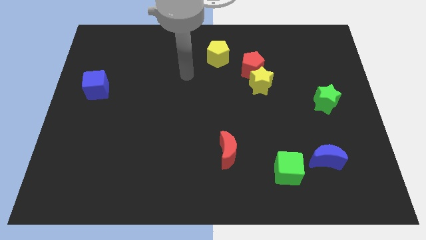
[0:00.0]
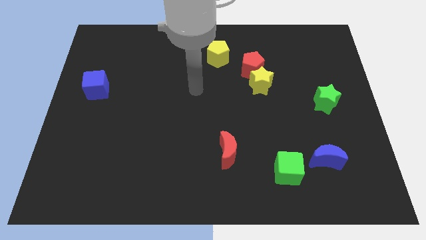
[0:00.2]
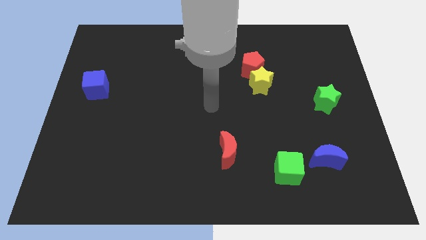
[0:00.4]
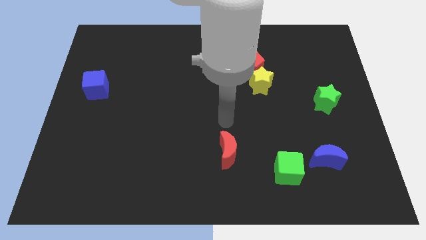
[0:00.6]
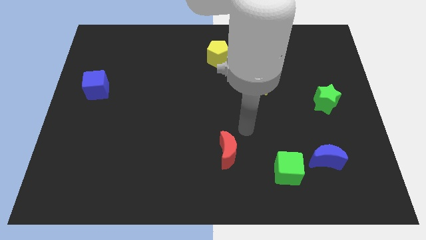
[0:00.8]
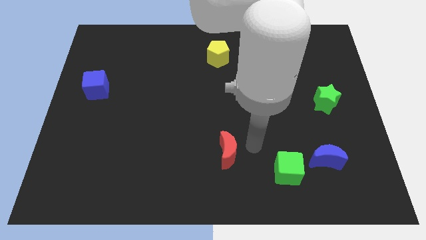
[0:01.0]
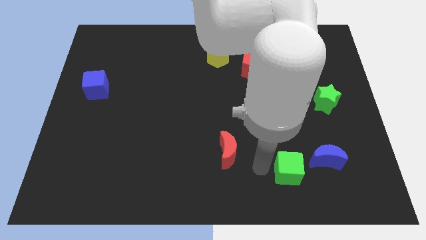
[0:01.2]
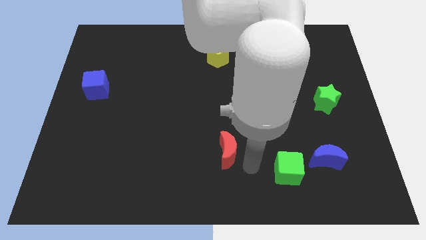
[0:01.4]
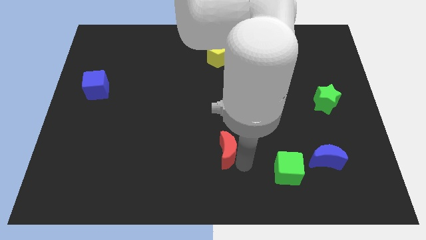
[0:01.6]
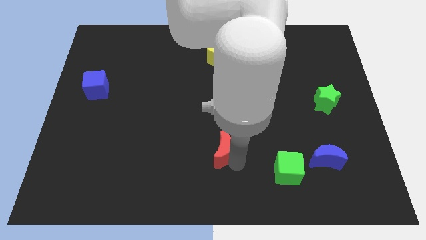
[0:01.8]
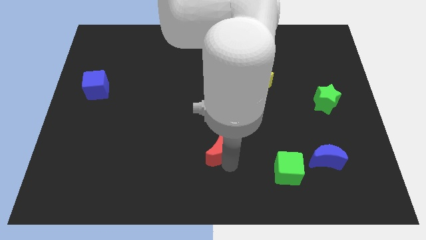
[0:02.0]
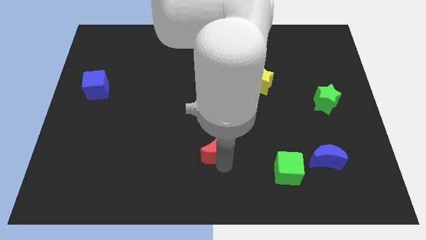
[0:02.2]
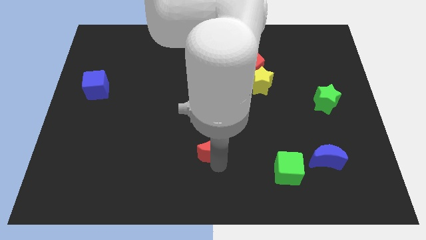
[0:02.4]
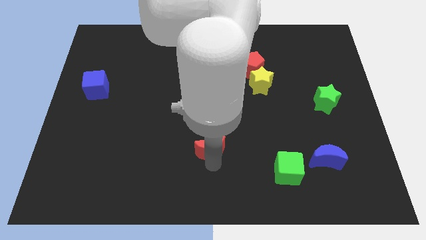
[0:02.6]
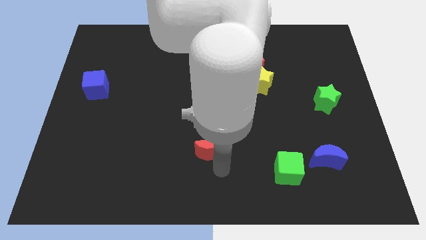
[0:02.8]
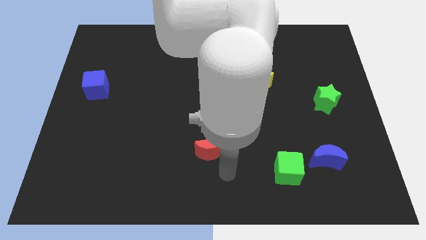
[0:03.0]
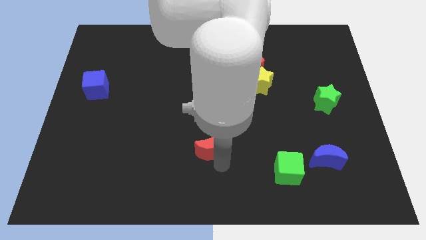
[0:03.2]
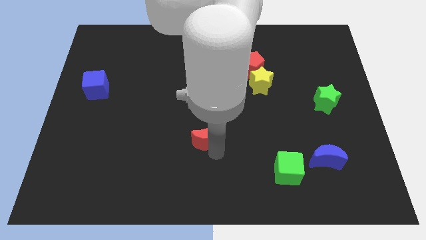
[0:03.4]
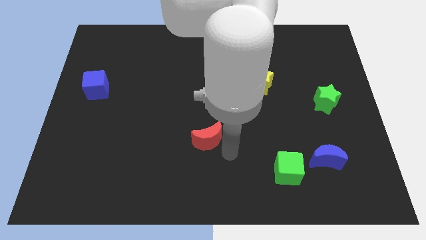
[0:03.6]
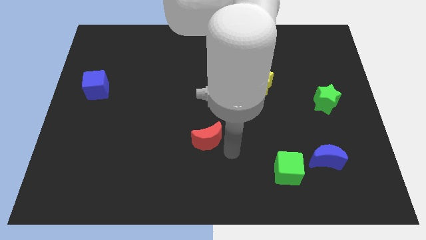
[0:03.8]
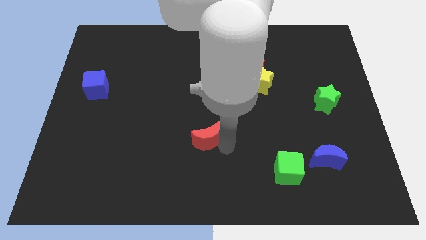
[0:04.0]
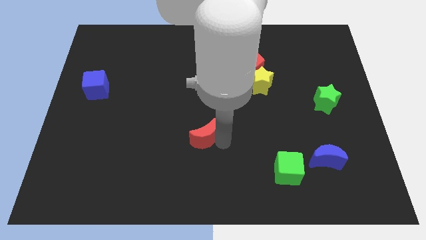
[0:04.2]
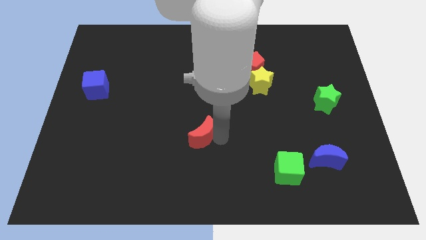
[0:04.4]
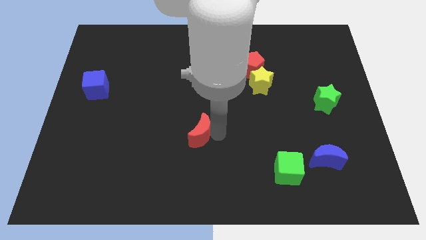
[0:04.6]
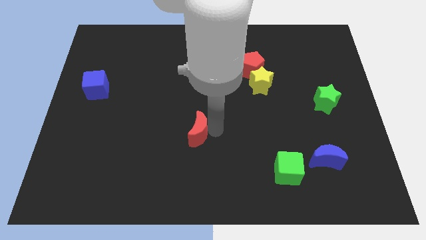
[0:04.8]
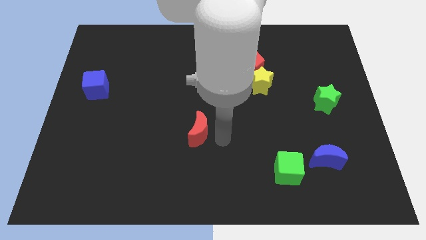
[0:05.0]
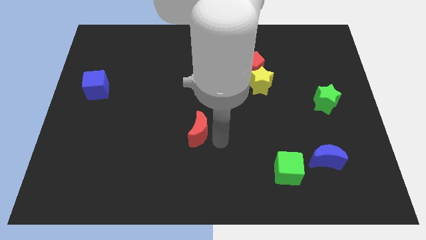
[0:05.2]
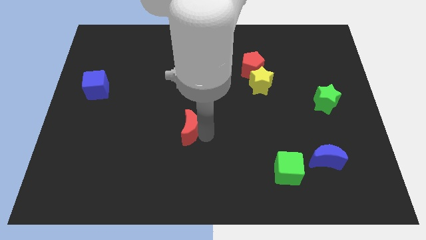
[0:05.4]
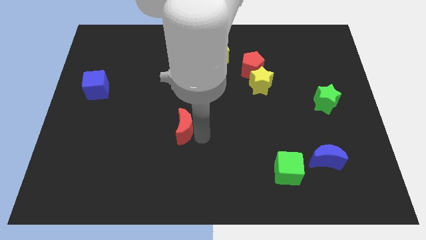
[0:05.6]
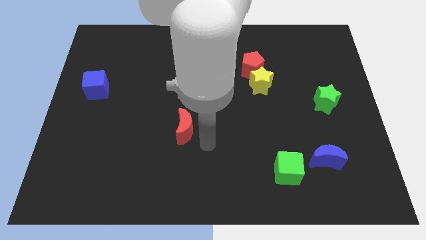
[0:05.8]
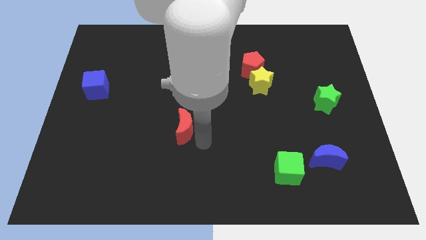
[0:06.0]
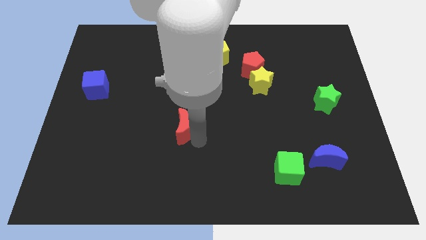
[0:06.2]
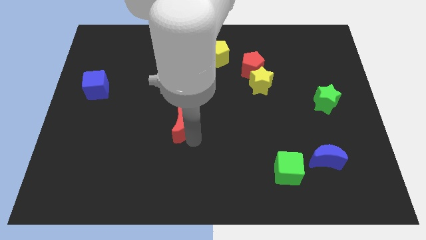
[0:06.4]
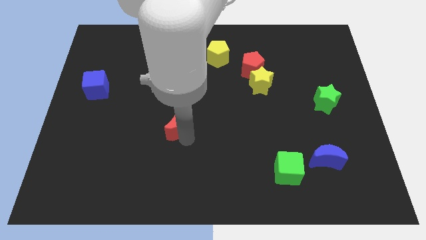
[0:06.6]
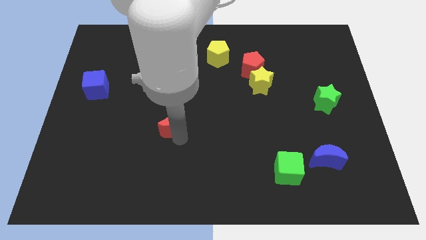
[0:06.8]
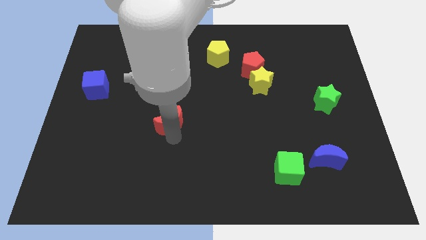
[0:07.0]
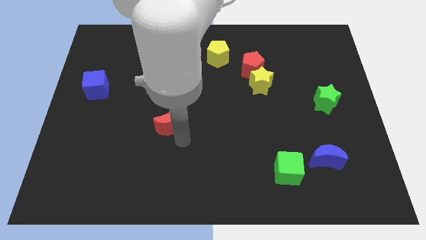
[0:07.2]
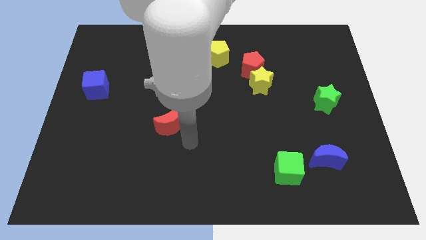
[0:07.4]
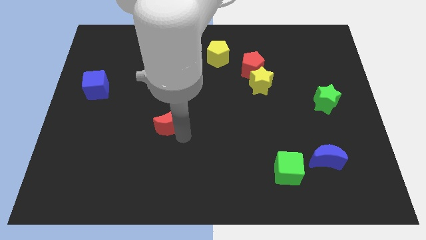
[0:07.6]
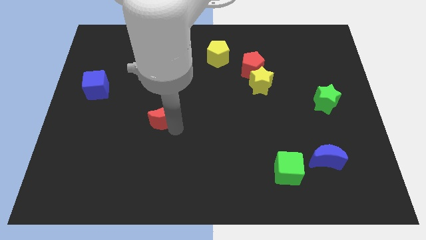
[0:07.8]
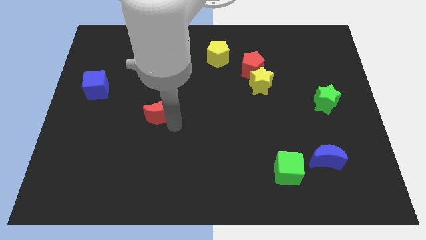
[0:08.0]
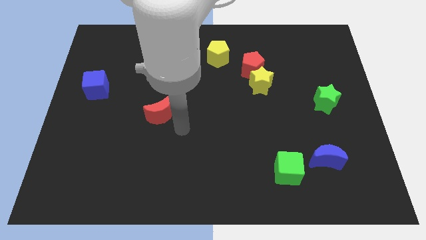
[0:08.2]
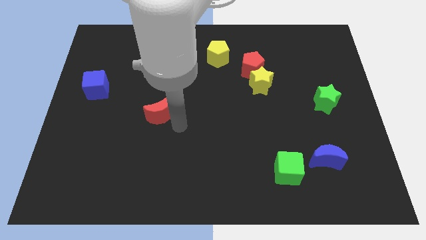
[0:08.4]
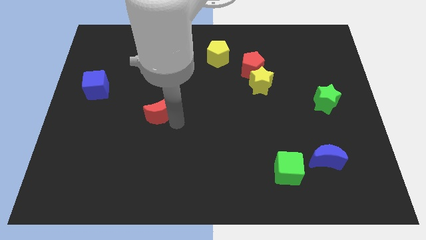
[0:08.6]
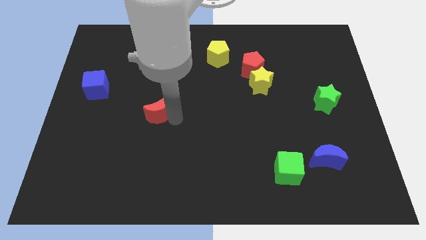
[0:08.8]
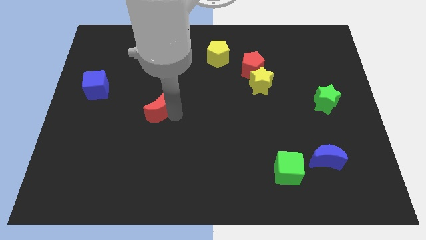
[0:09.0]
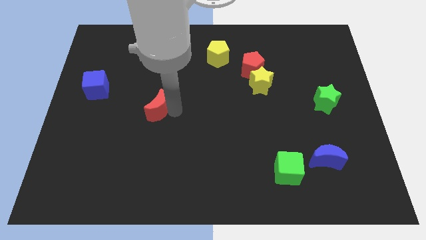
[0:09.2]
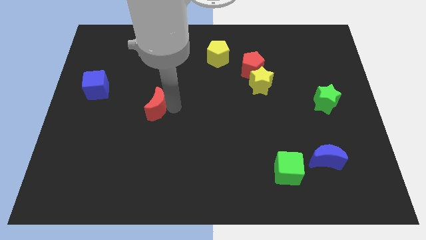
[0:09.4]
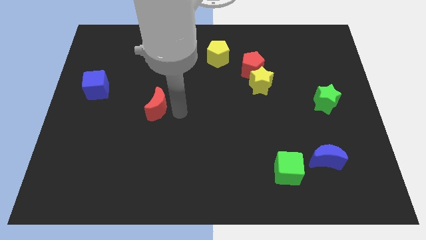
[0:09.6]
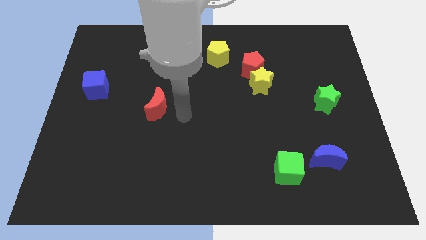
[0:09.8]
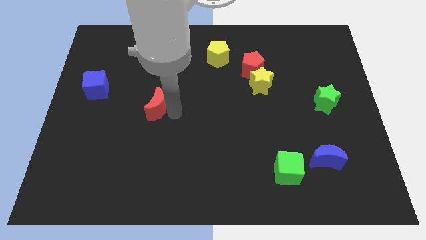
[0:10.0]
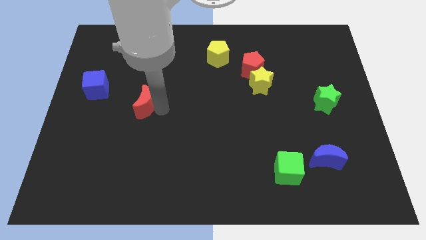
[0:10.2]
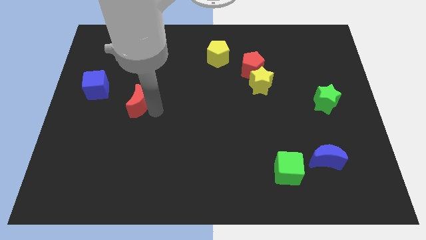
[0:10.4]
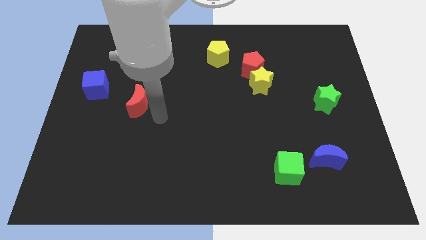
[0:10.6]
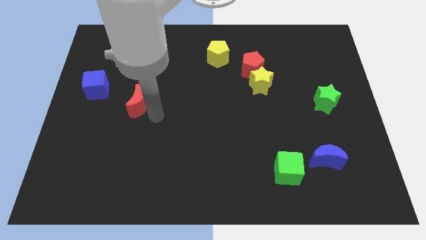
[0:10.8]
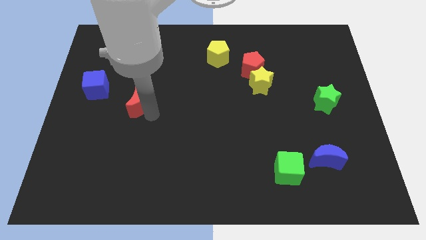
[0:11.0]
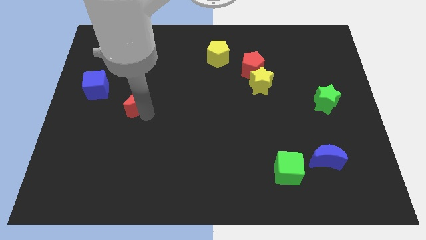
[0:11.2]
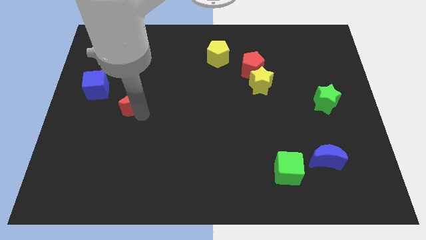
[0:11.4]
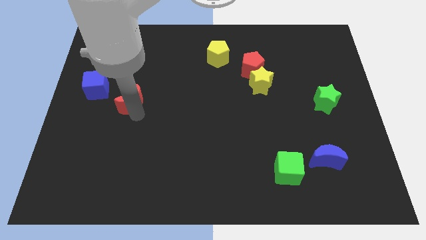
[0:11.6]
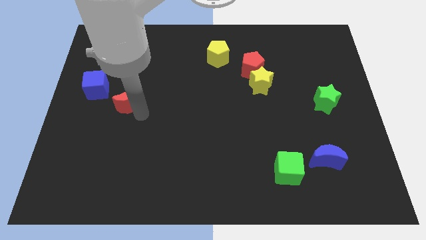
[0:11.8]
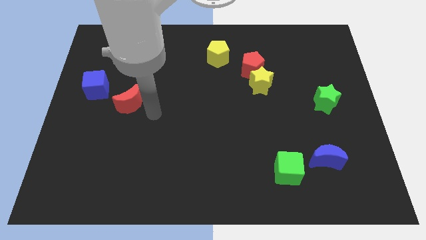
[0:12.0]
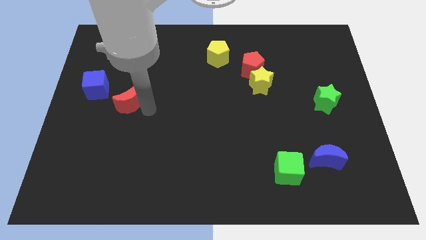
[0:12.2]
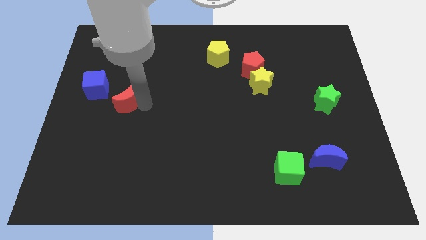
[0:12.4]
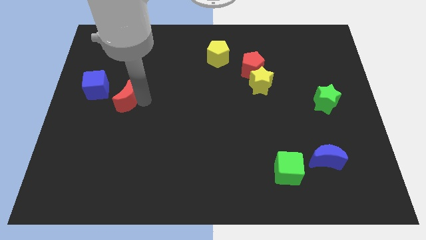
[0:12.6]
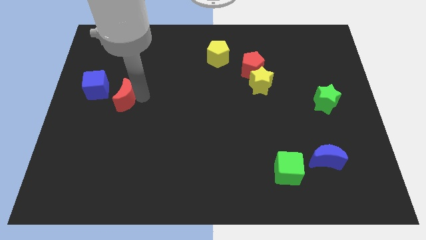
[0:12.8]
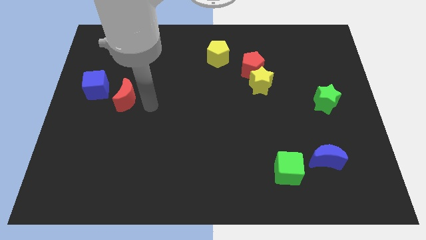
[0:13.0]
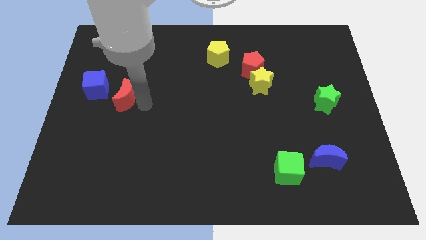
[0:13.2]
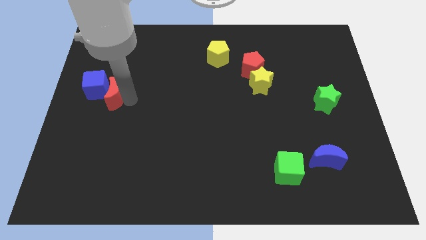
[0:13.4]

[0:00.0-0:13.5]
slide the red moon close to the blue cube
